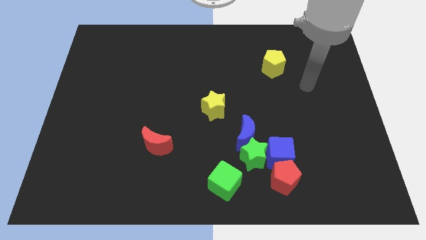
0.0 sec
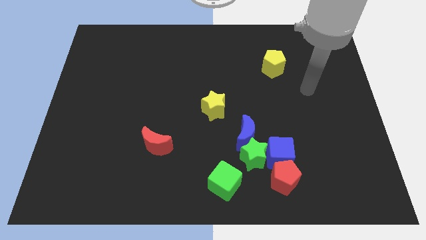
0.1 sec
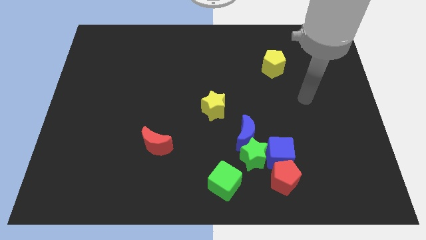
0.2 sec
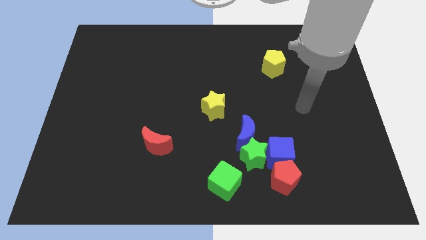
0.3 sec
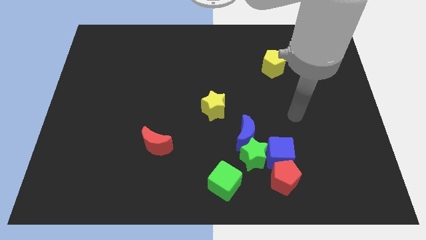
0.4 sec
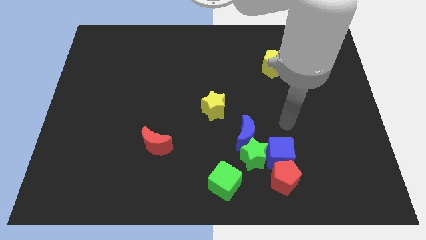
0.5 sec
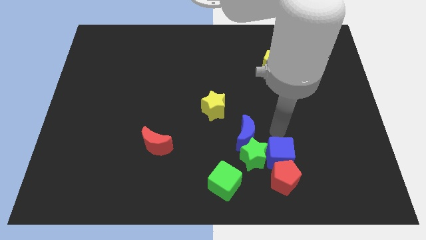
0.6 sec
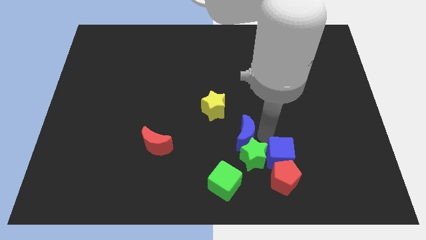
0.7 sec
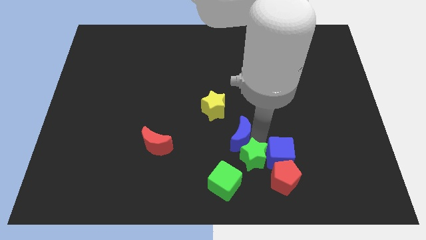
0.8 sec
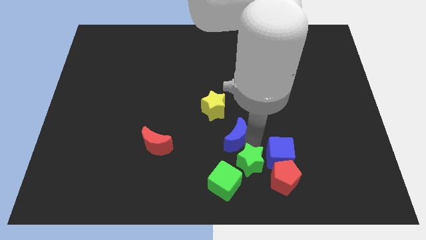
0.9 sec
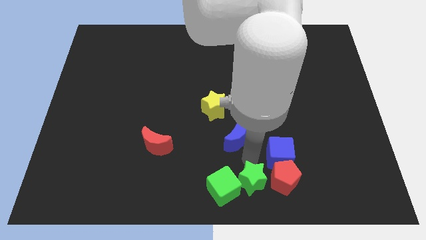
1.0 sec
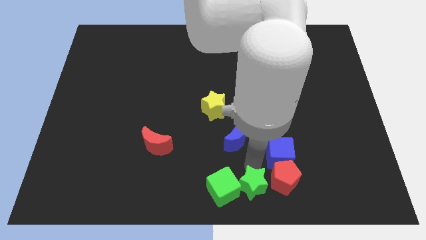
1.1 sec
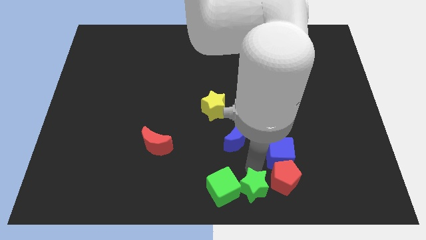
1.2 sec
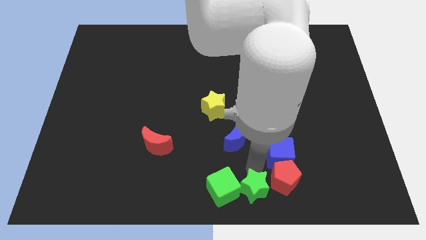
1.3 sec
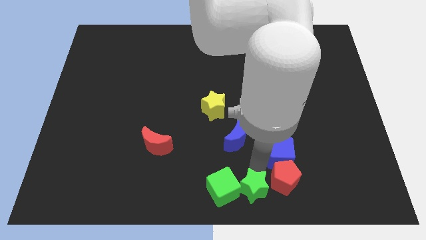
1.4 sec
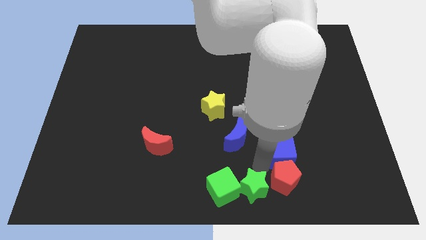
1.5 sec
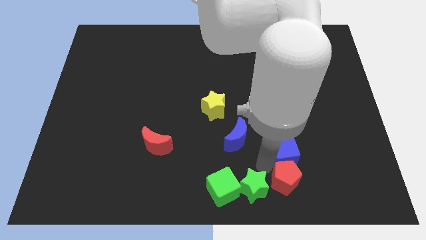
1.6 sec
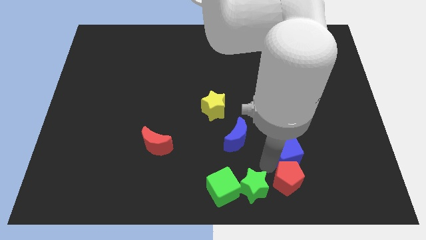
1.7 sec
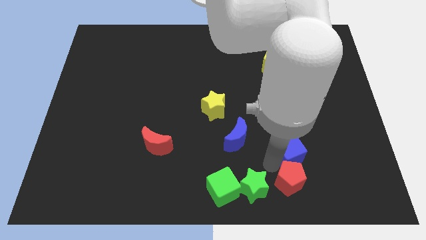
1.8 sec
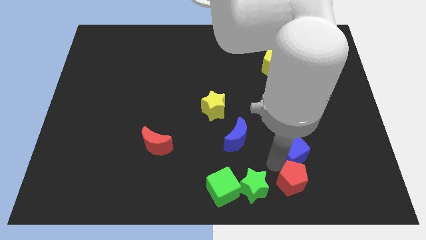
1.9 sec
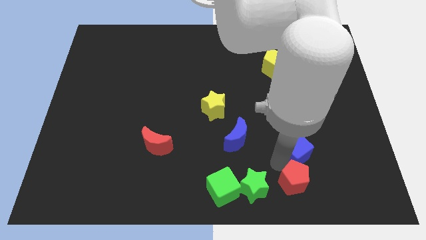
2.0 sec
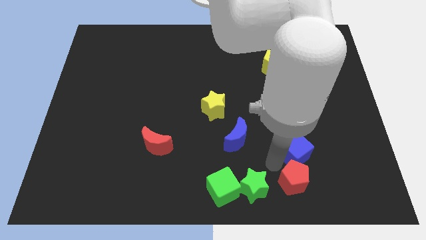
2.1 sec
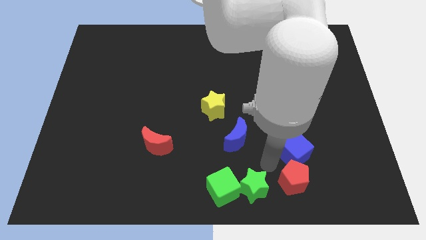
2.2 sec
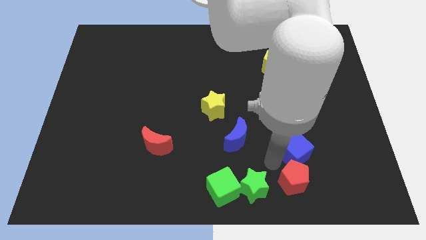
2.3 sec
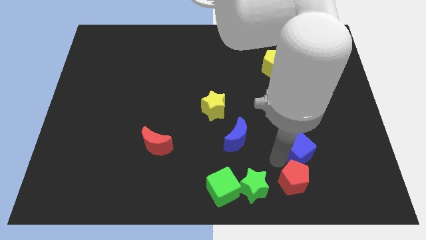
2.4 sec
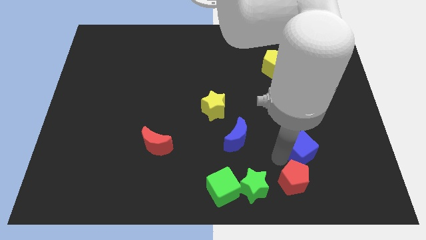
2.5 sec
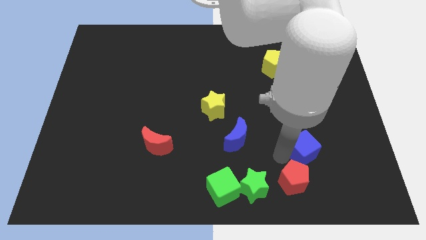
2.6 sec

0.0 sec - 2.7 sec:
separate the blue cube from the green star, red pentagon, and blue moon

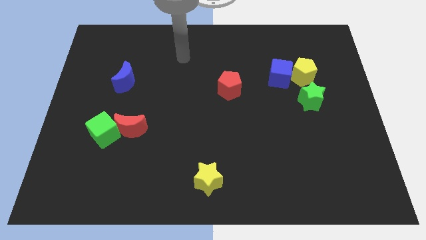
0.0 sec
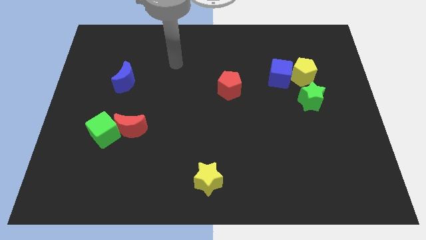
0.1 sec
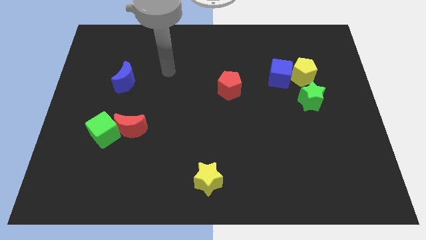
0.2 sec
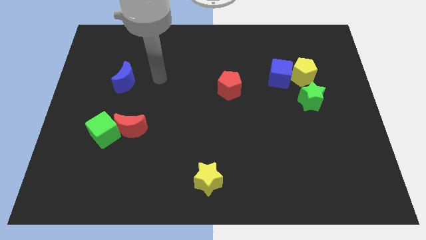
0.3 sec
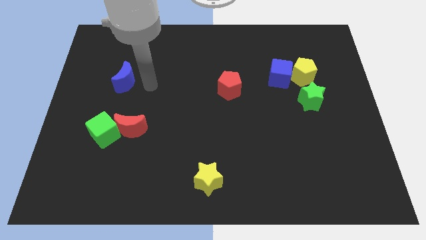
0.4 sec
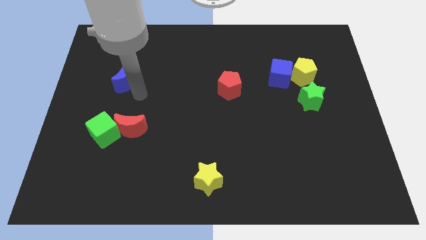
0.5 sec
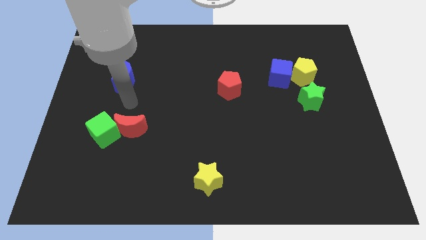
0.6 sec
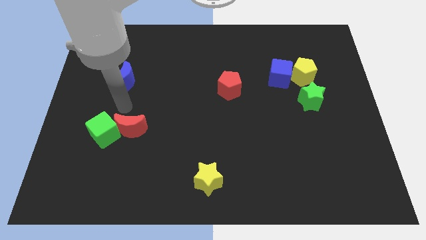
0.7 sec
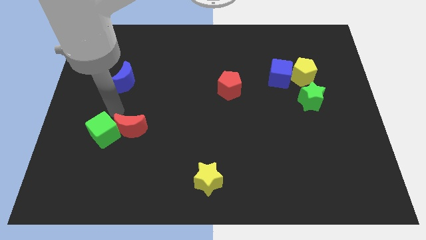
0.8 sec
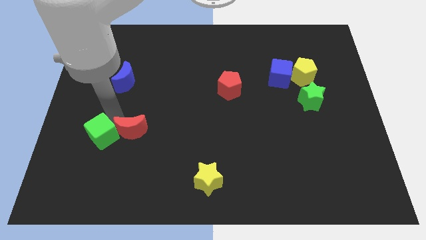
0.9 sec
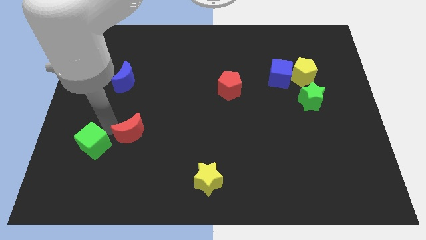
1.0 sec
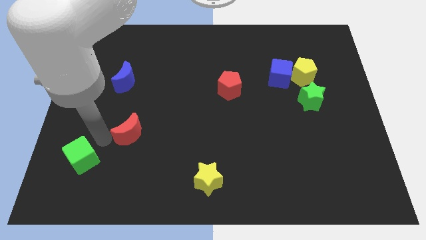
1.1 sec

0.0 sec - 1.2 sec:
move the red moon away from the green cube

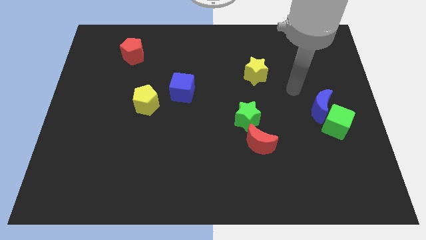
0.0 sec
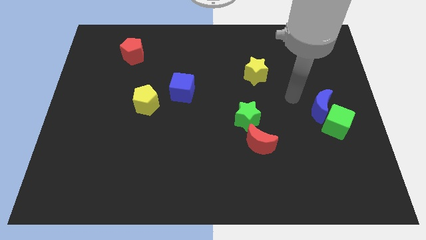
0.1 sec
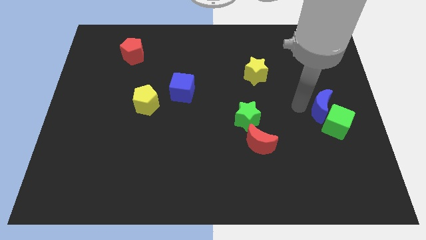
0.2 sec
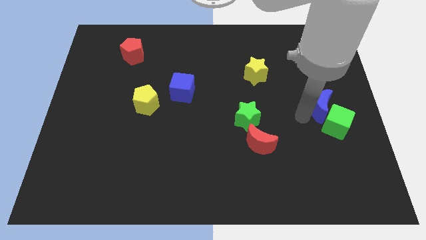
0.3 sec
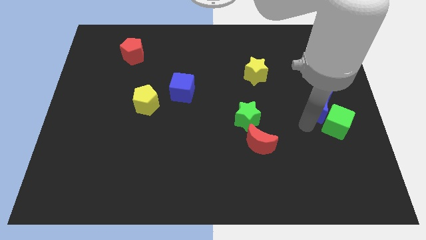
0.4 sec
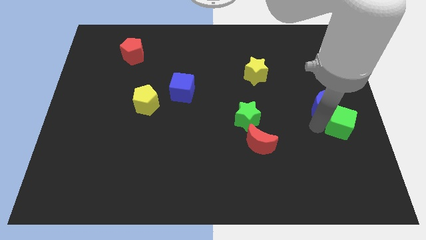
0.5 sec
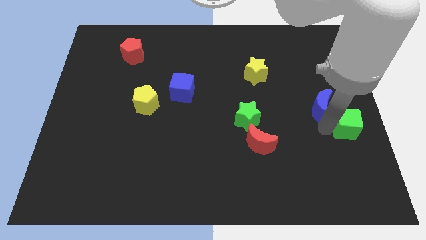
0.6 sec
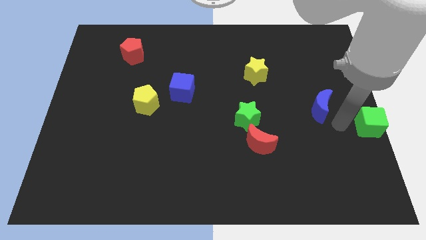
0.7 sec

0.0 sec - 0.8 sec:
pull the blue moon apart from the green cube

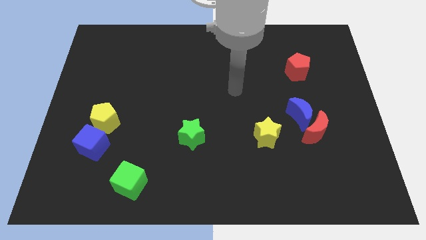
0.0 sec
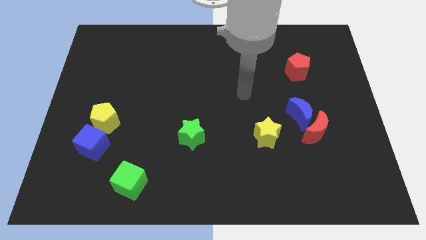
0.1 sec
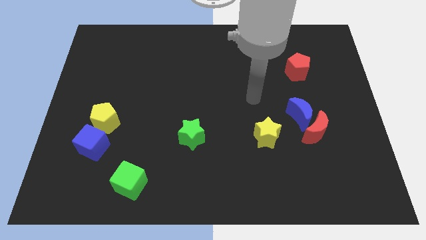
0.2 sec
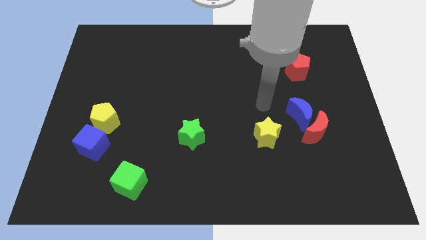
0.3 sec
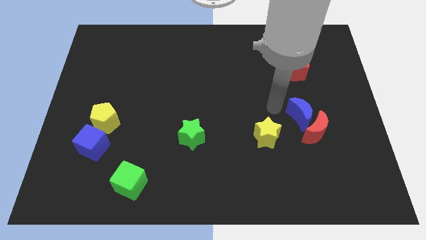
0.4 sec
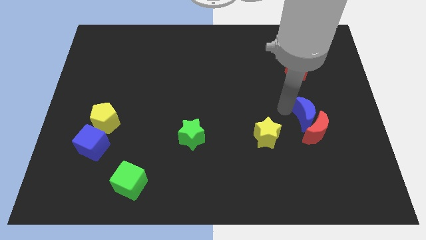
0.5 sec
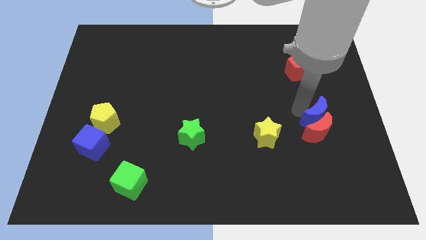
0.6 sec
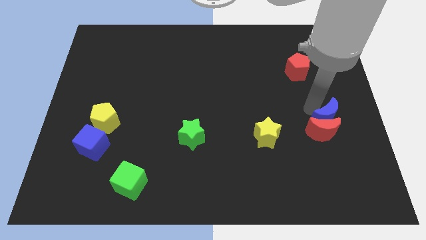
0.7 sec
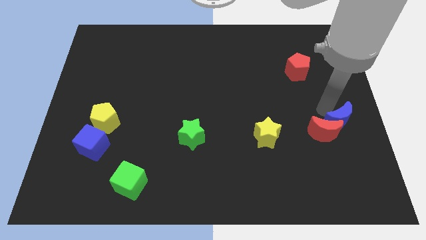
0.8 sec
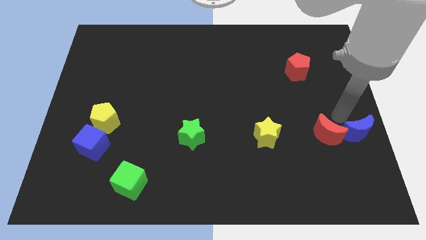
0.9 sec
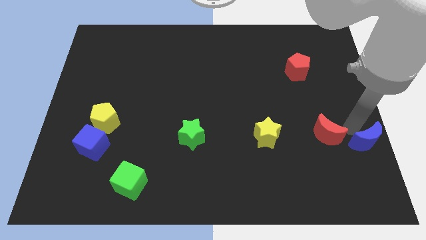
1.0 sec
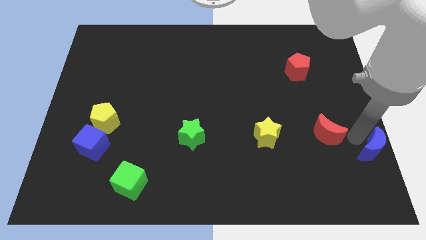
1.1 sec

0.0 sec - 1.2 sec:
pull the red moon apart from the blue moon

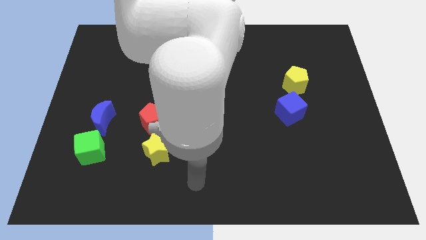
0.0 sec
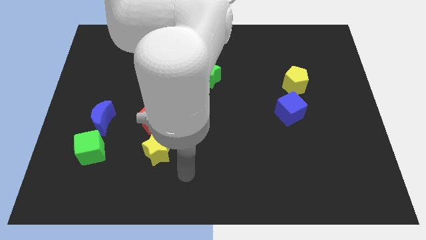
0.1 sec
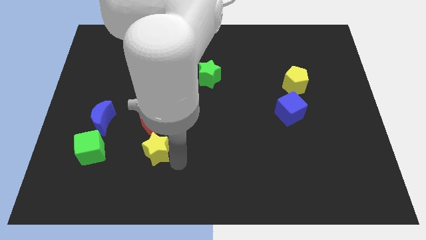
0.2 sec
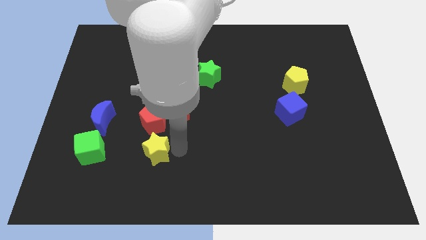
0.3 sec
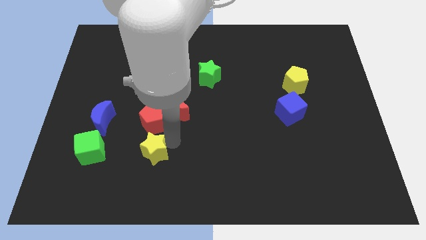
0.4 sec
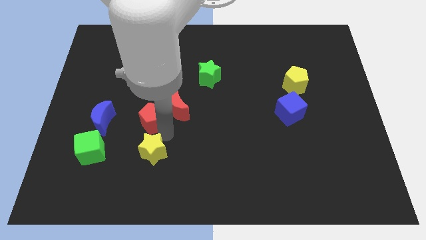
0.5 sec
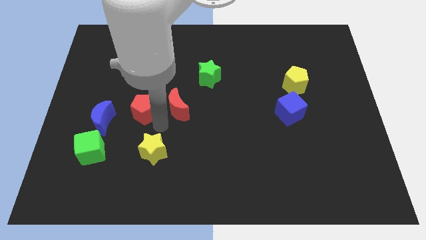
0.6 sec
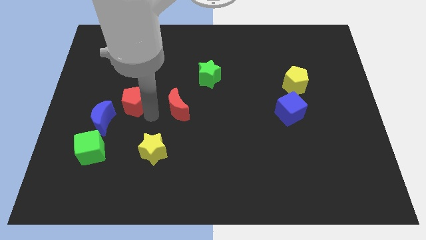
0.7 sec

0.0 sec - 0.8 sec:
move the red moon away from the red pentagon

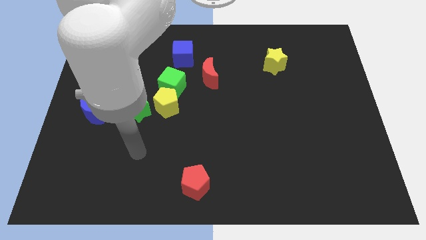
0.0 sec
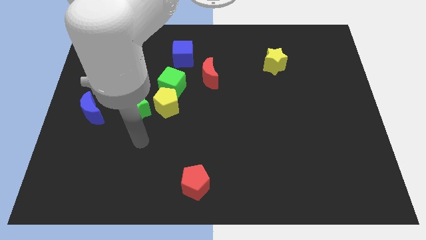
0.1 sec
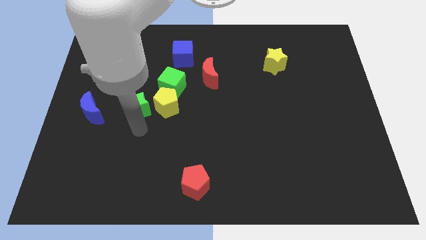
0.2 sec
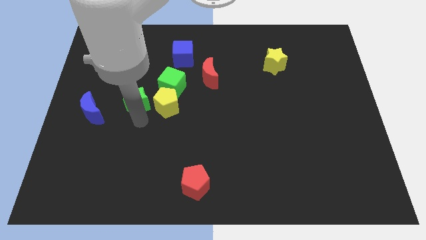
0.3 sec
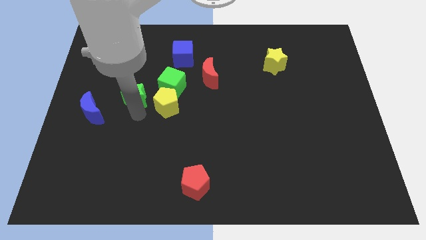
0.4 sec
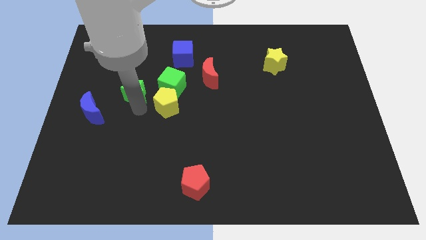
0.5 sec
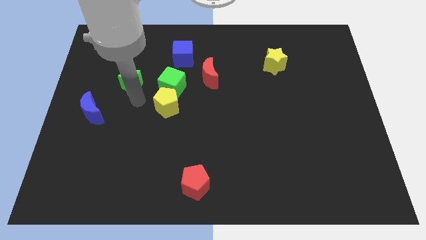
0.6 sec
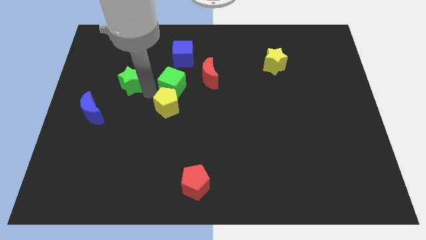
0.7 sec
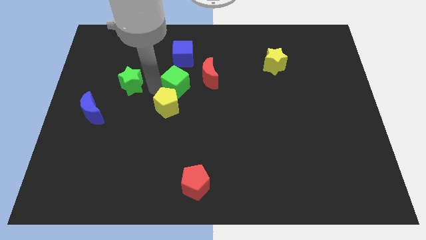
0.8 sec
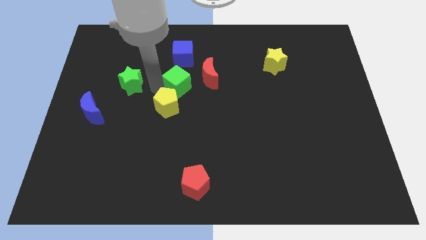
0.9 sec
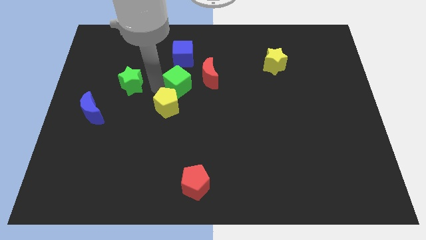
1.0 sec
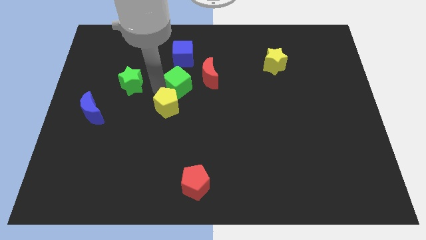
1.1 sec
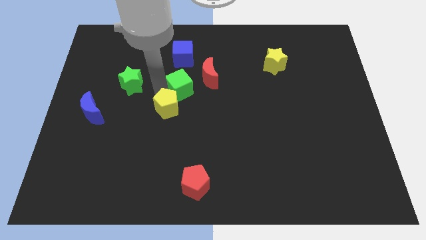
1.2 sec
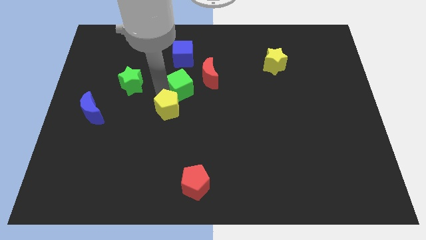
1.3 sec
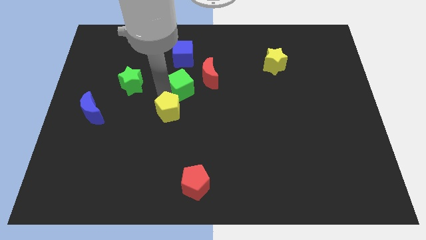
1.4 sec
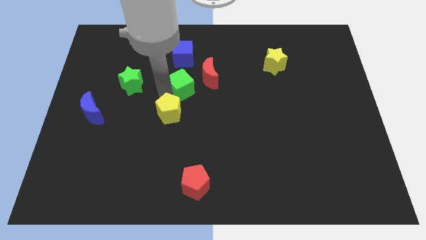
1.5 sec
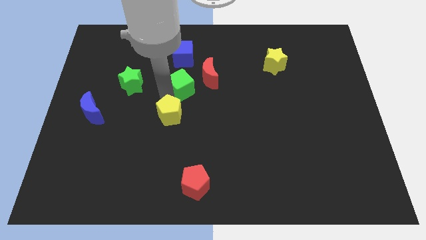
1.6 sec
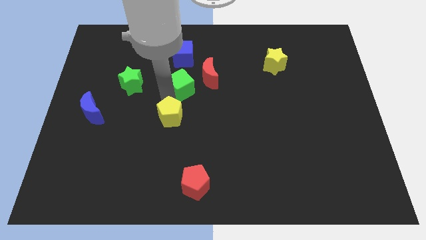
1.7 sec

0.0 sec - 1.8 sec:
separate the yellow pentagon from the green cube and green star

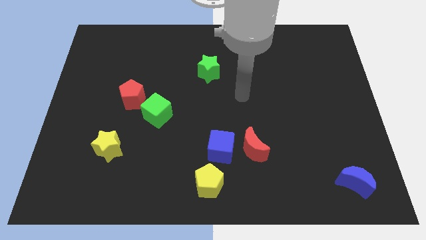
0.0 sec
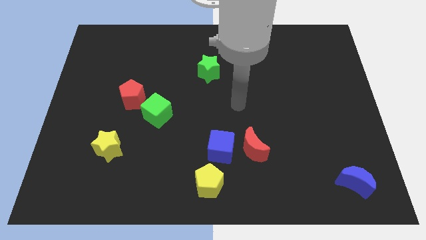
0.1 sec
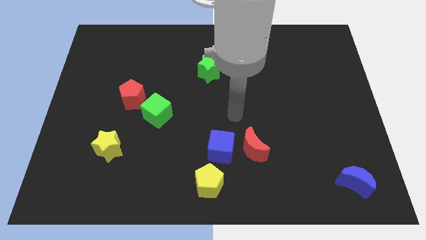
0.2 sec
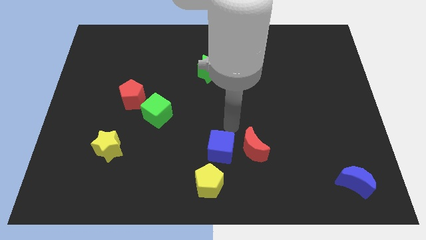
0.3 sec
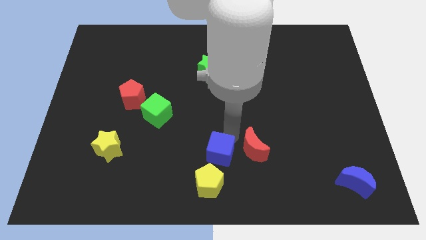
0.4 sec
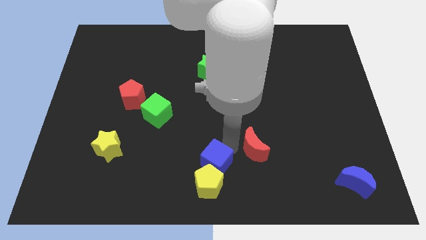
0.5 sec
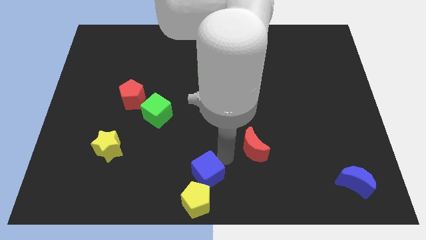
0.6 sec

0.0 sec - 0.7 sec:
pull the red moon apart from the blue cube

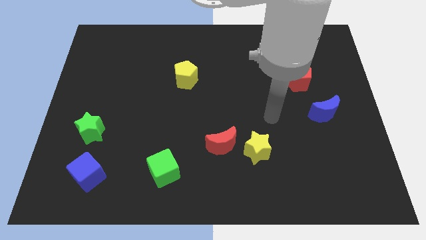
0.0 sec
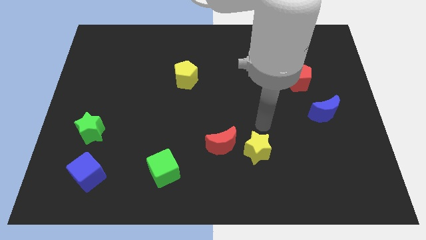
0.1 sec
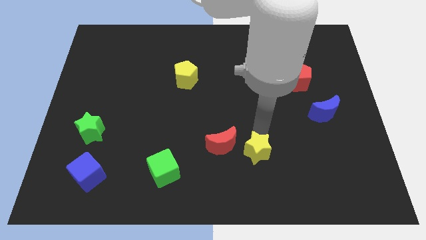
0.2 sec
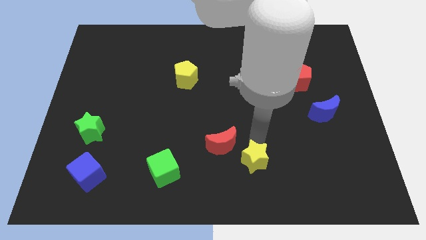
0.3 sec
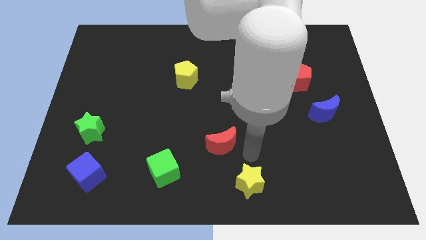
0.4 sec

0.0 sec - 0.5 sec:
move the red moon away from the yellow star
